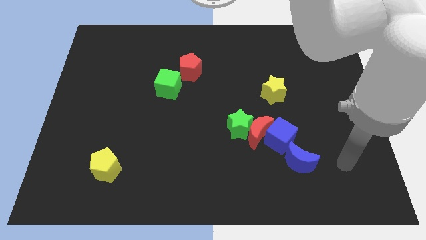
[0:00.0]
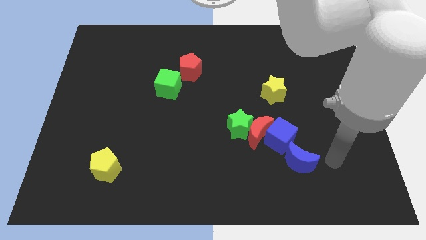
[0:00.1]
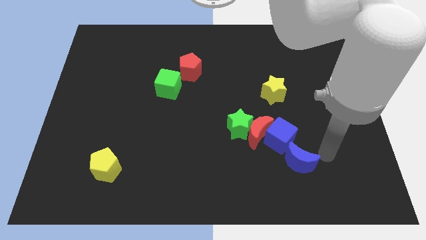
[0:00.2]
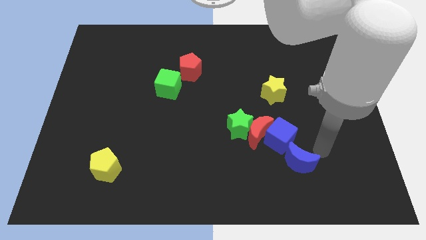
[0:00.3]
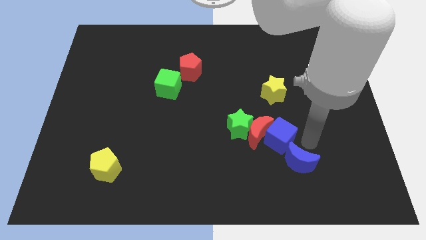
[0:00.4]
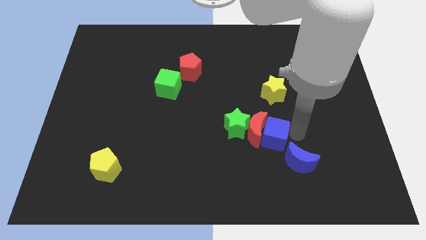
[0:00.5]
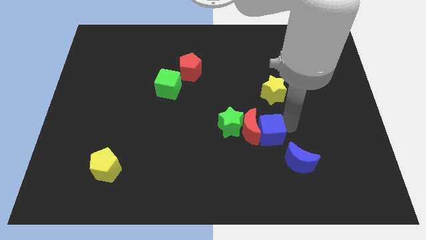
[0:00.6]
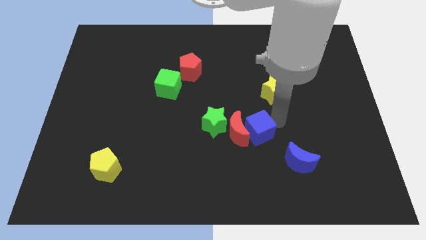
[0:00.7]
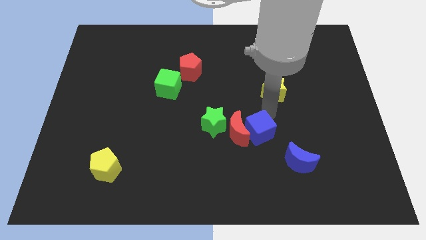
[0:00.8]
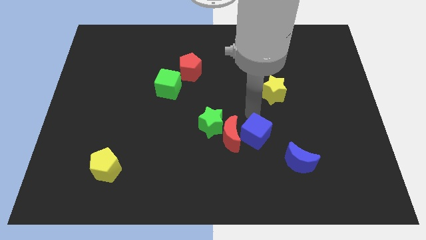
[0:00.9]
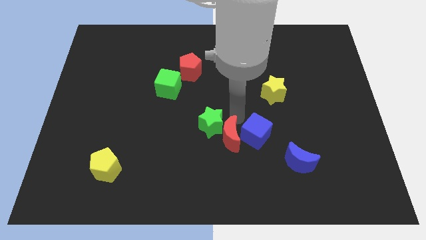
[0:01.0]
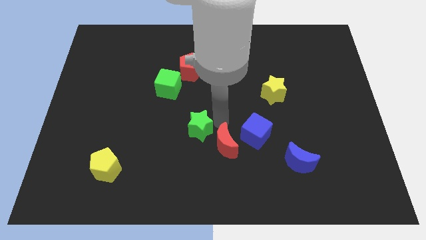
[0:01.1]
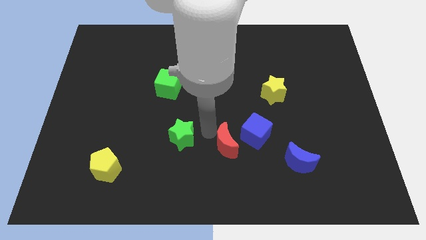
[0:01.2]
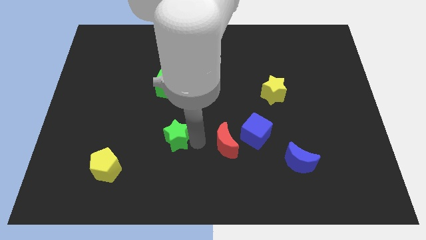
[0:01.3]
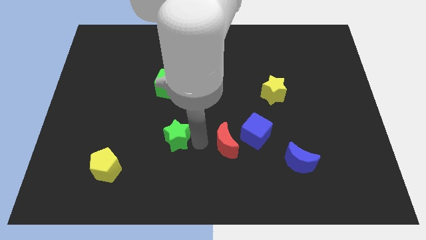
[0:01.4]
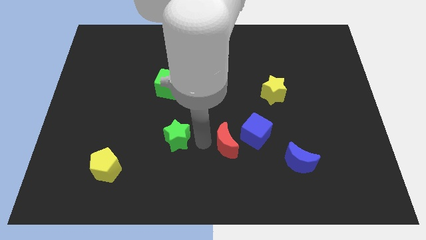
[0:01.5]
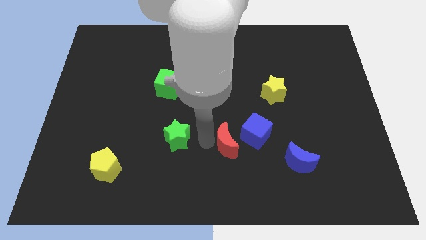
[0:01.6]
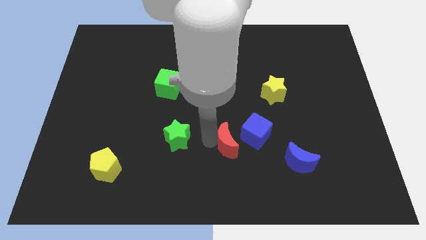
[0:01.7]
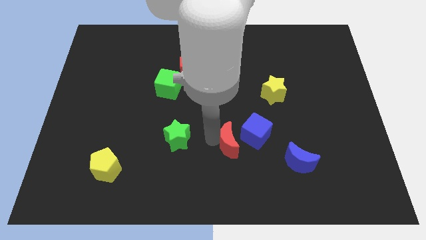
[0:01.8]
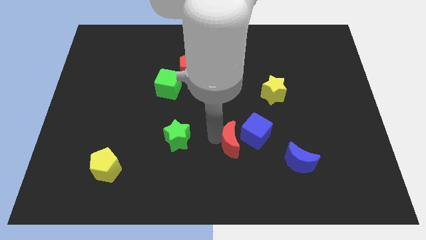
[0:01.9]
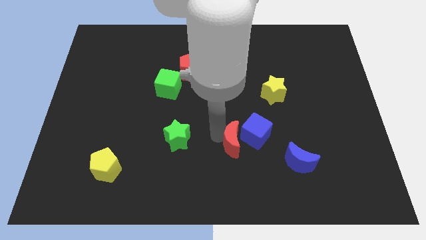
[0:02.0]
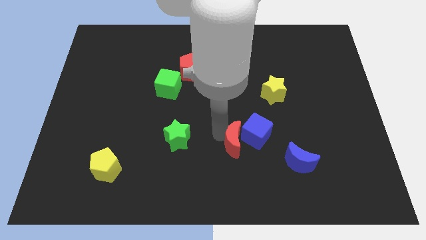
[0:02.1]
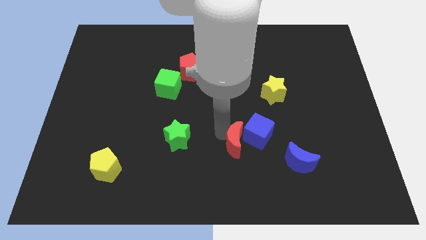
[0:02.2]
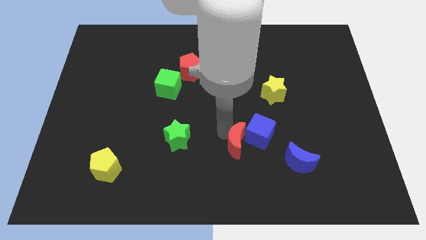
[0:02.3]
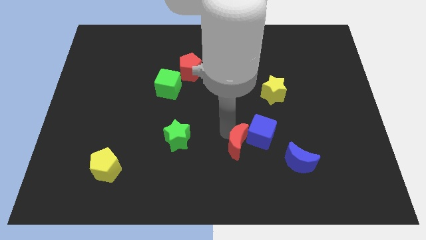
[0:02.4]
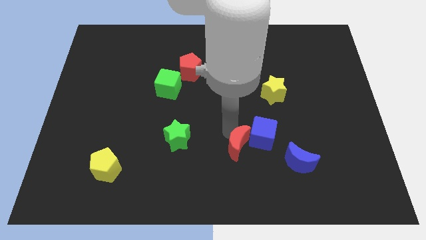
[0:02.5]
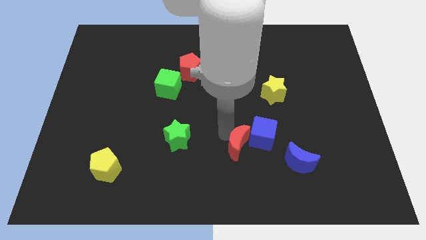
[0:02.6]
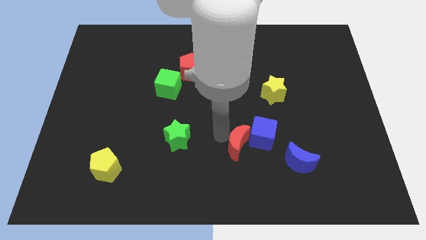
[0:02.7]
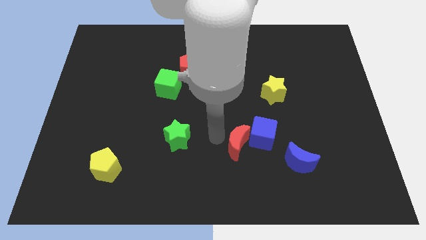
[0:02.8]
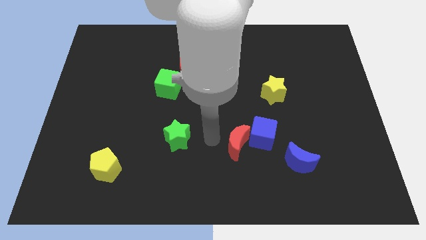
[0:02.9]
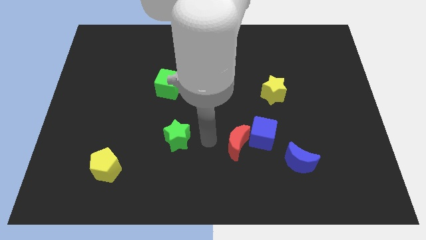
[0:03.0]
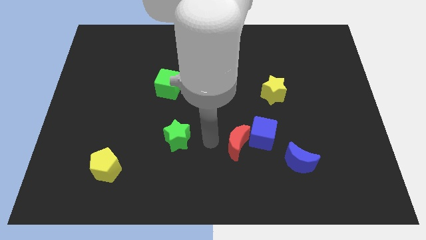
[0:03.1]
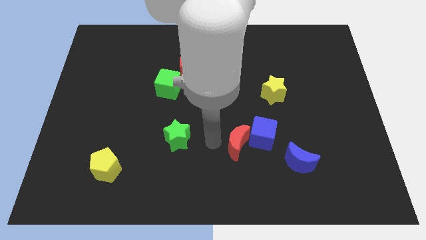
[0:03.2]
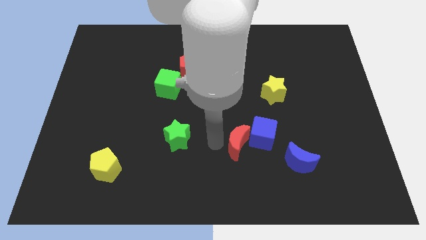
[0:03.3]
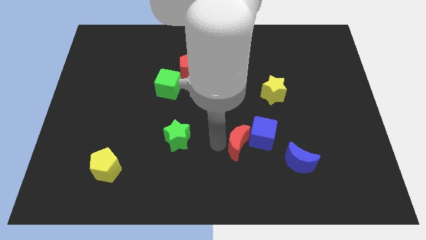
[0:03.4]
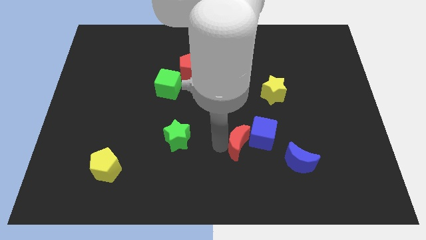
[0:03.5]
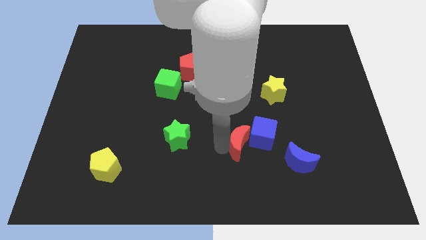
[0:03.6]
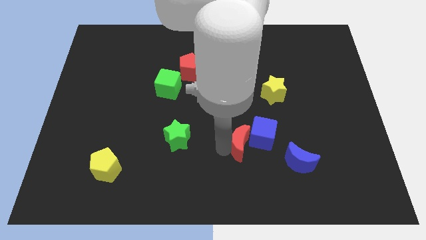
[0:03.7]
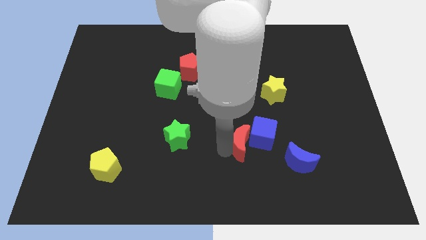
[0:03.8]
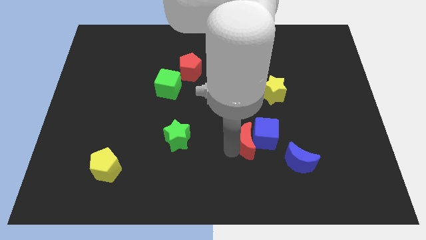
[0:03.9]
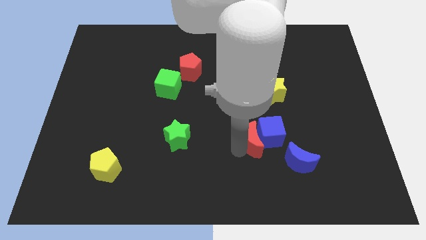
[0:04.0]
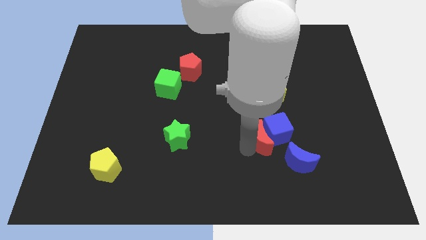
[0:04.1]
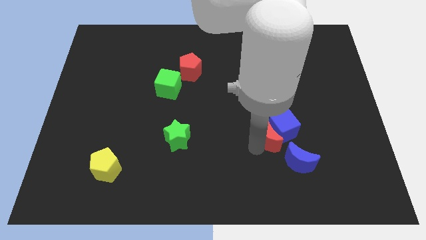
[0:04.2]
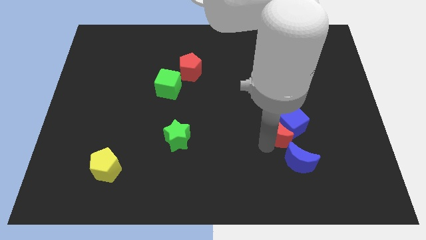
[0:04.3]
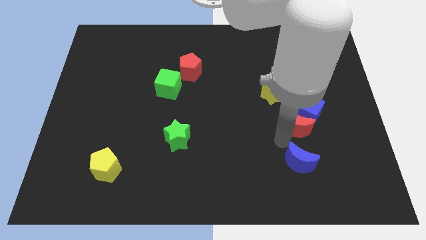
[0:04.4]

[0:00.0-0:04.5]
move the red moon away from the green star and blue cube

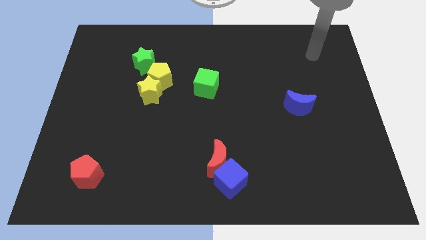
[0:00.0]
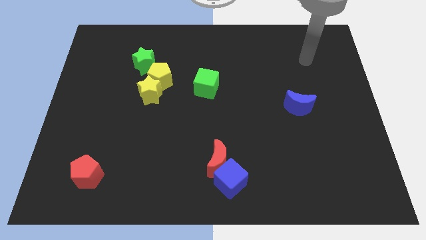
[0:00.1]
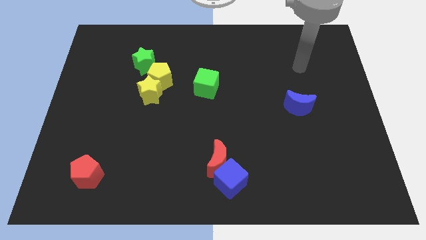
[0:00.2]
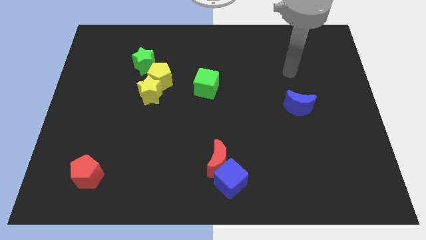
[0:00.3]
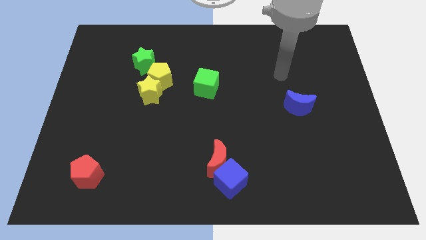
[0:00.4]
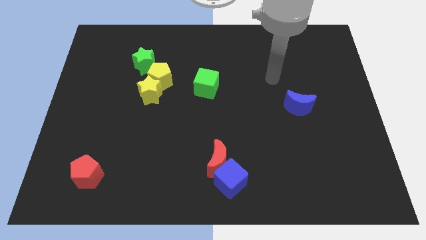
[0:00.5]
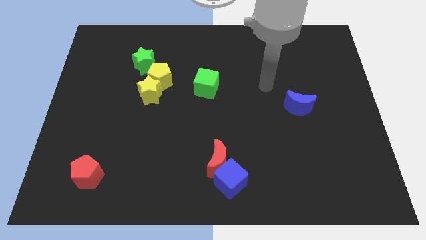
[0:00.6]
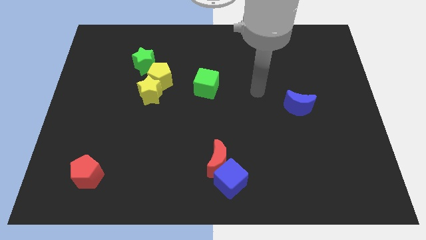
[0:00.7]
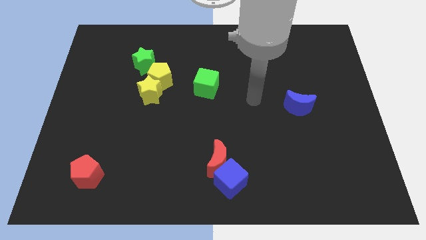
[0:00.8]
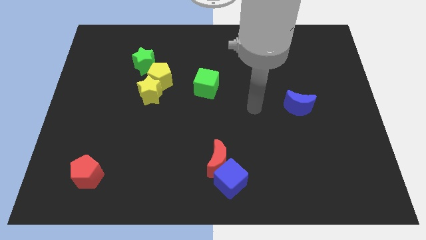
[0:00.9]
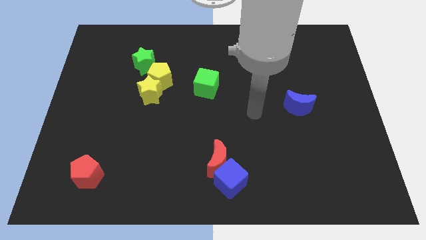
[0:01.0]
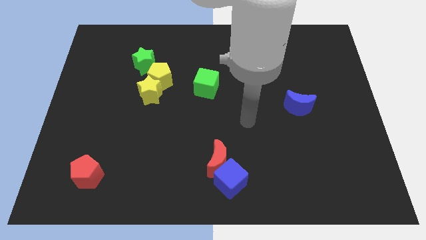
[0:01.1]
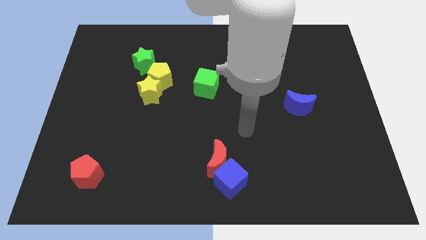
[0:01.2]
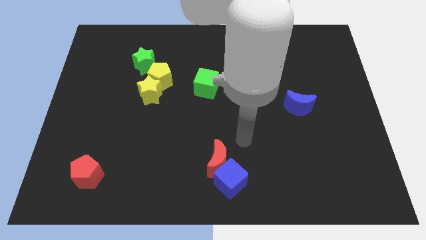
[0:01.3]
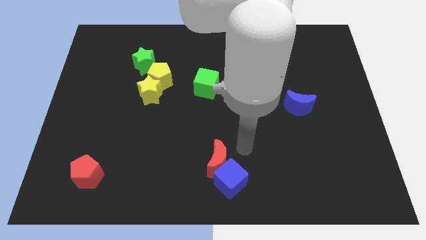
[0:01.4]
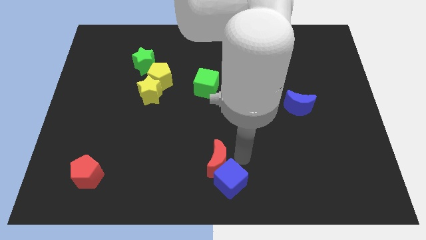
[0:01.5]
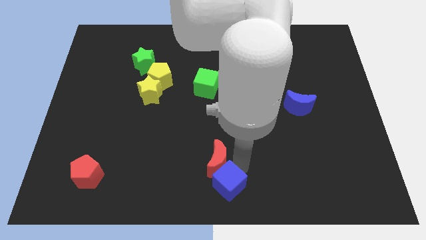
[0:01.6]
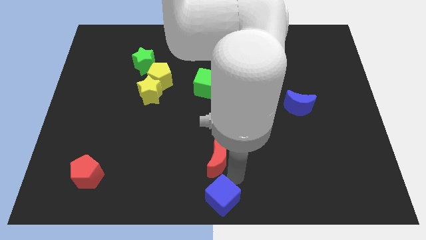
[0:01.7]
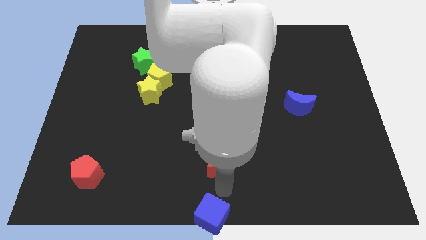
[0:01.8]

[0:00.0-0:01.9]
pull the red moon apart from the blue cube

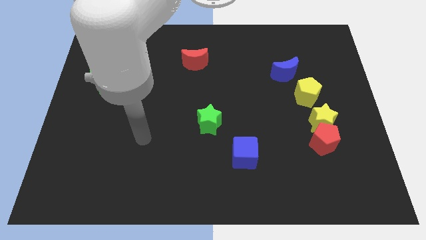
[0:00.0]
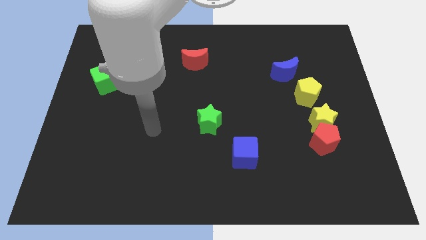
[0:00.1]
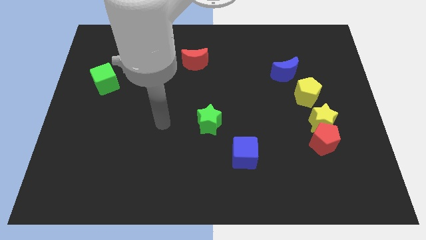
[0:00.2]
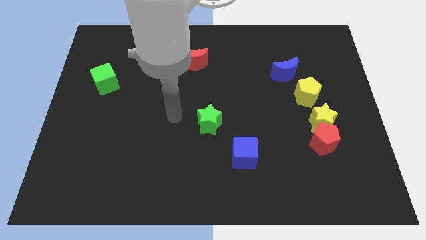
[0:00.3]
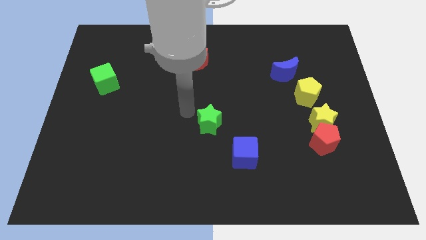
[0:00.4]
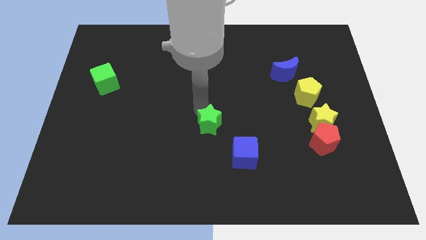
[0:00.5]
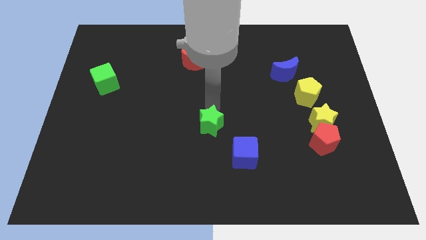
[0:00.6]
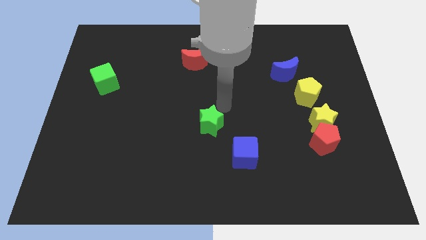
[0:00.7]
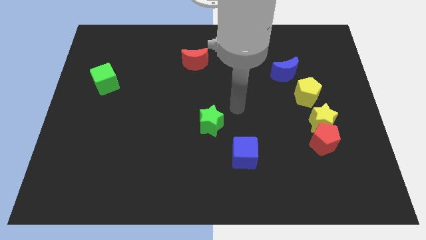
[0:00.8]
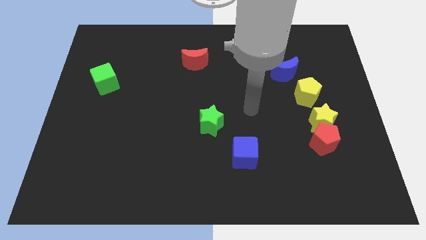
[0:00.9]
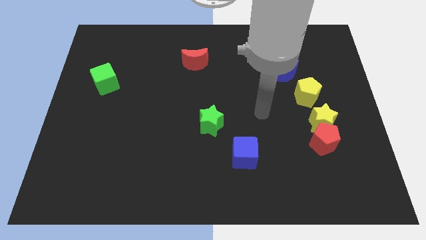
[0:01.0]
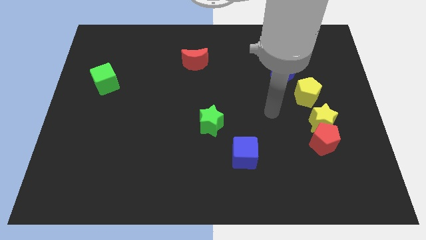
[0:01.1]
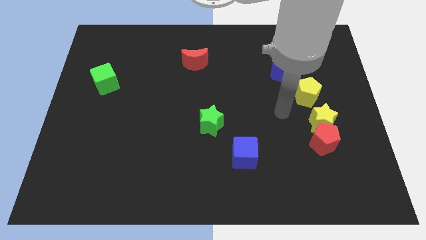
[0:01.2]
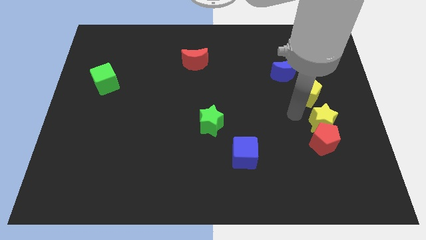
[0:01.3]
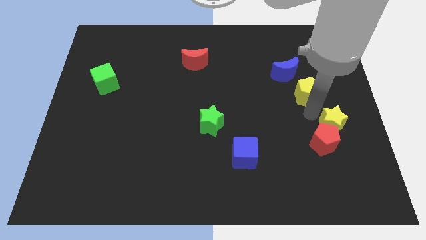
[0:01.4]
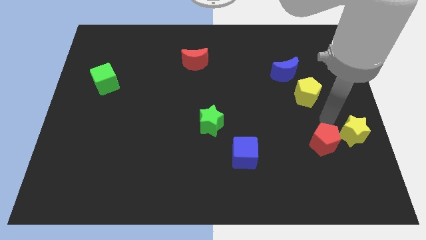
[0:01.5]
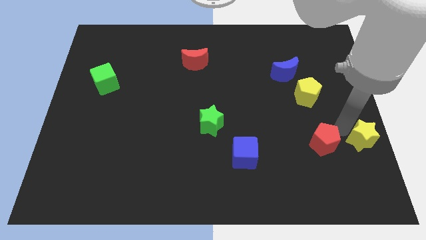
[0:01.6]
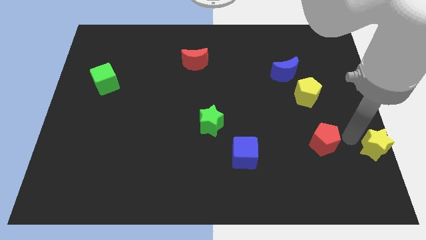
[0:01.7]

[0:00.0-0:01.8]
separate the red pentagon from the yellow star

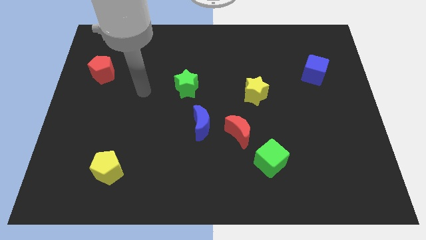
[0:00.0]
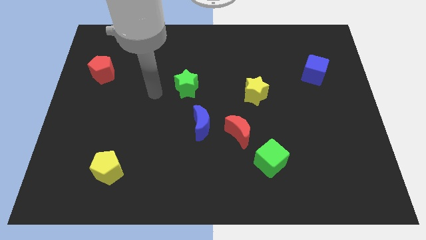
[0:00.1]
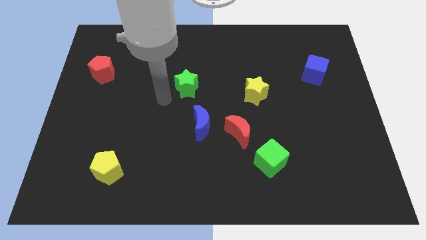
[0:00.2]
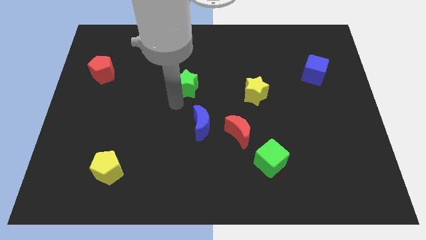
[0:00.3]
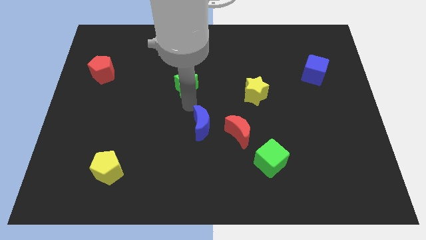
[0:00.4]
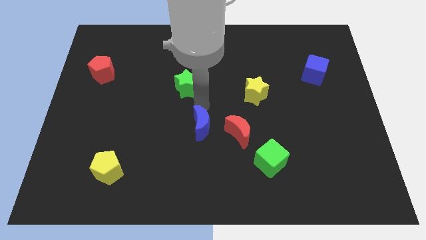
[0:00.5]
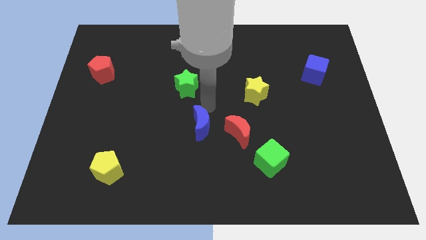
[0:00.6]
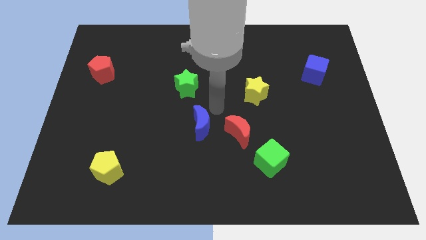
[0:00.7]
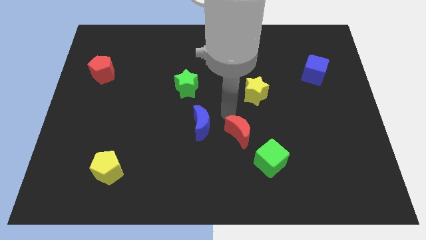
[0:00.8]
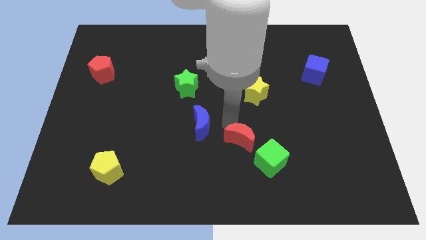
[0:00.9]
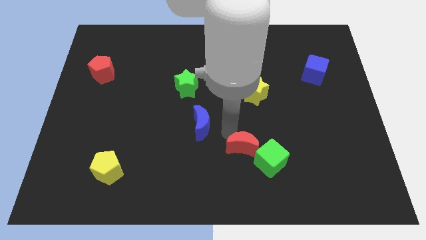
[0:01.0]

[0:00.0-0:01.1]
move the blue moon away from the red moon

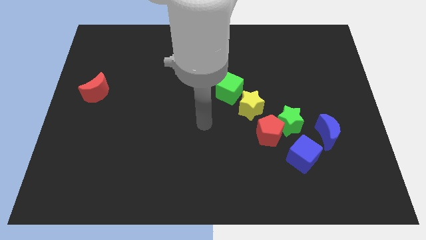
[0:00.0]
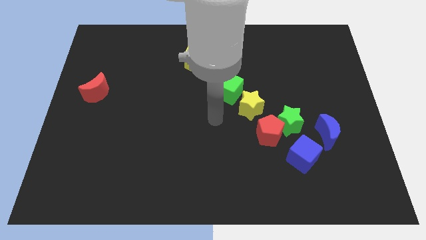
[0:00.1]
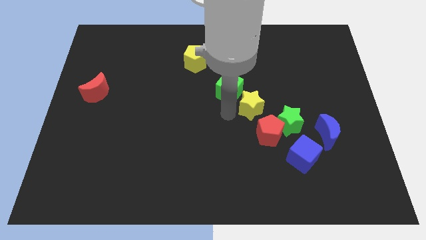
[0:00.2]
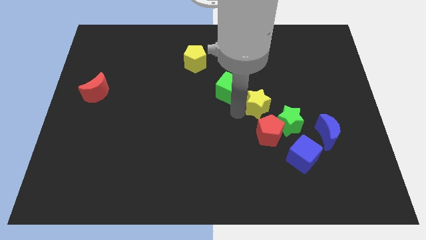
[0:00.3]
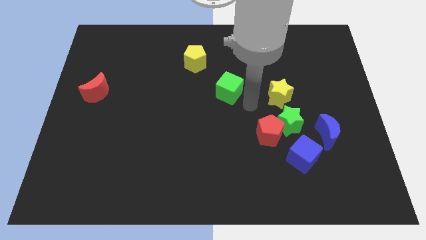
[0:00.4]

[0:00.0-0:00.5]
separate the green cube from the yellow star
